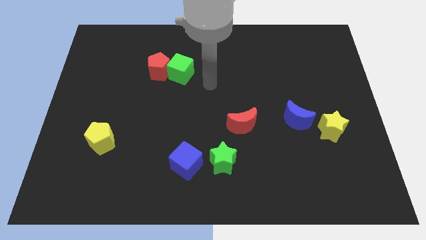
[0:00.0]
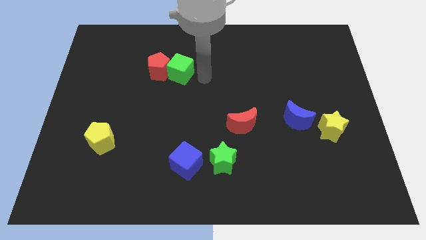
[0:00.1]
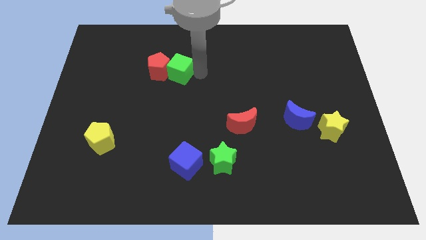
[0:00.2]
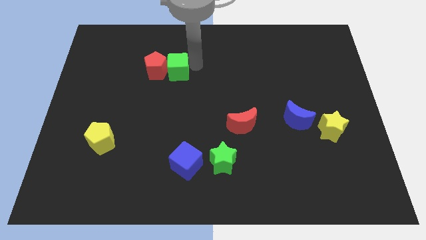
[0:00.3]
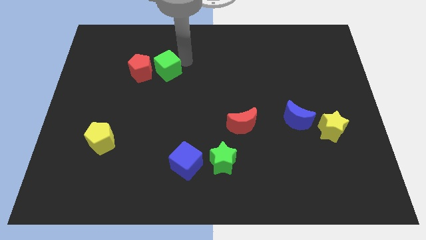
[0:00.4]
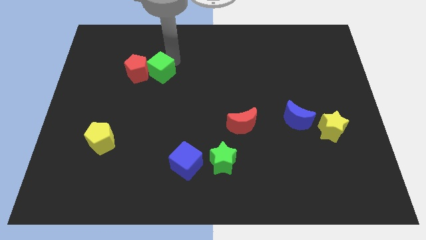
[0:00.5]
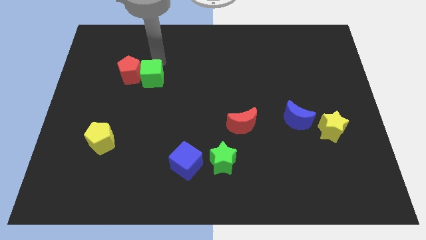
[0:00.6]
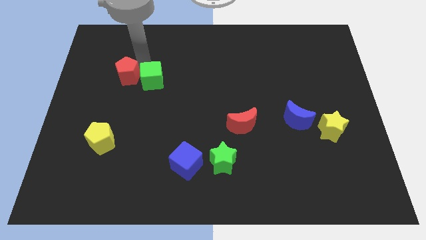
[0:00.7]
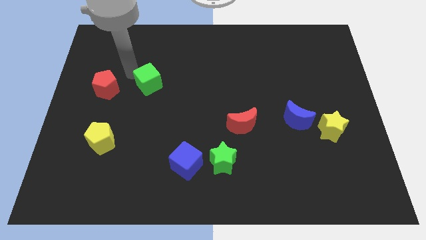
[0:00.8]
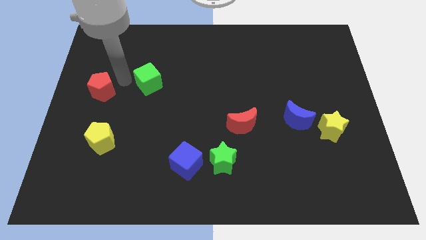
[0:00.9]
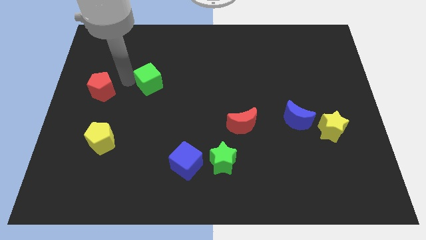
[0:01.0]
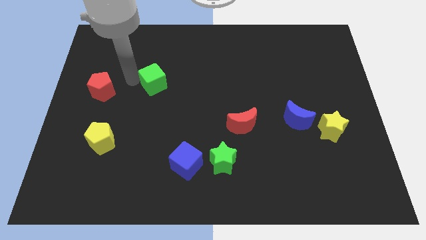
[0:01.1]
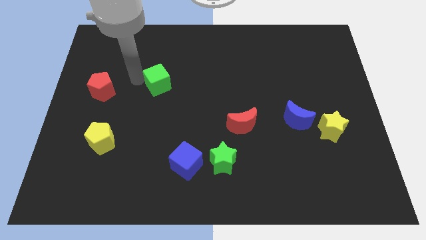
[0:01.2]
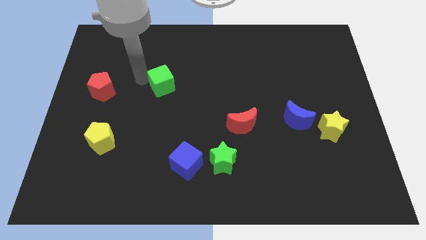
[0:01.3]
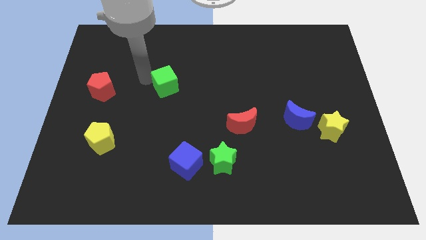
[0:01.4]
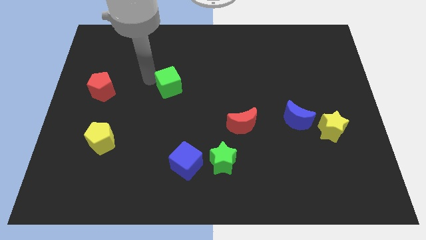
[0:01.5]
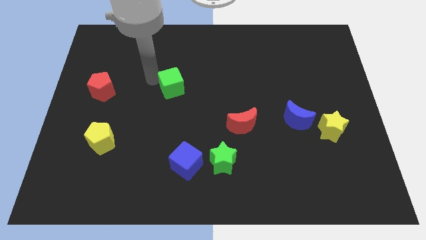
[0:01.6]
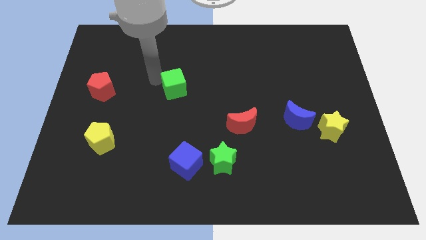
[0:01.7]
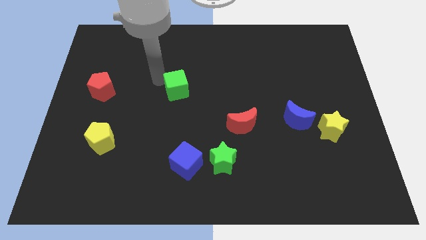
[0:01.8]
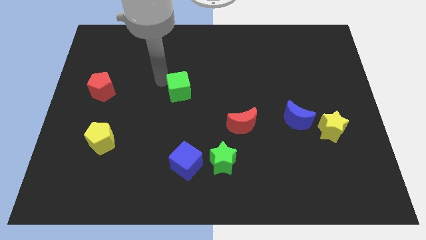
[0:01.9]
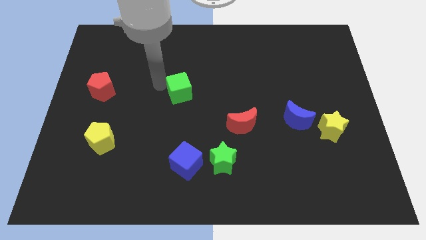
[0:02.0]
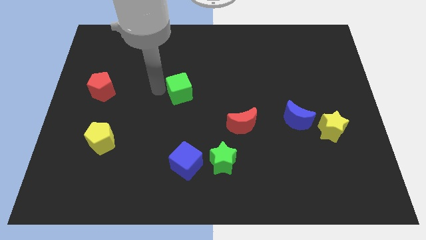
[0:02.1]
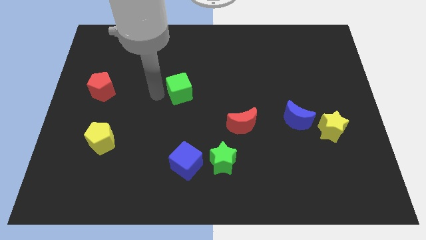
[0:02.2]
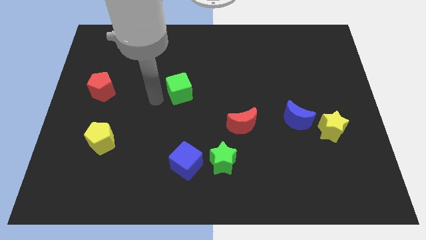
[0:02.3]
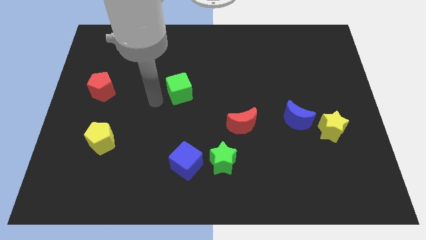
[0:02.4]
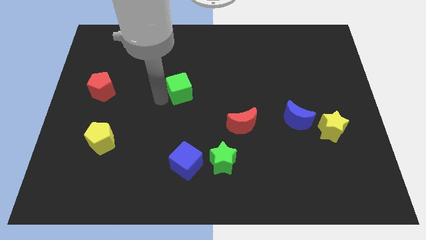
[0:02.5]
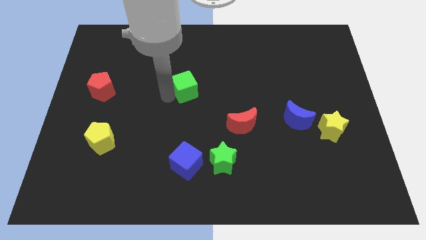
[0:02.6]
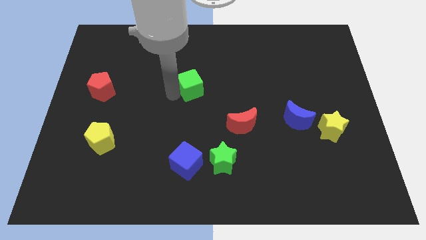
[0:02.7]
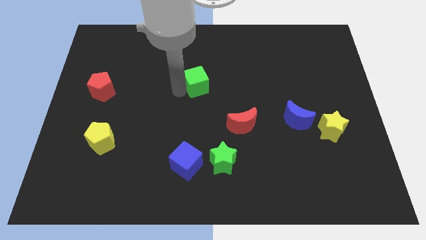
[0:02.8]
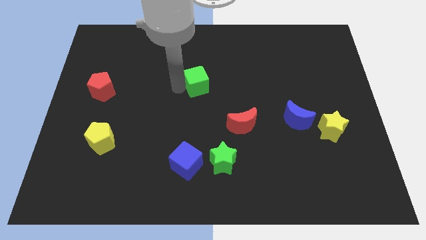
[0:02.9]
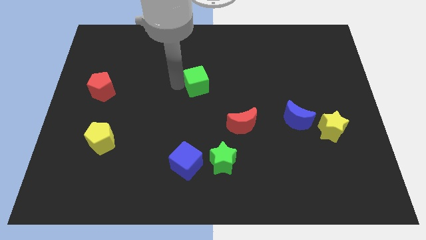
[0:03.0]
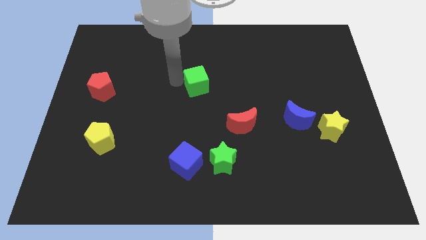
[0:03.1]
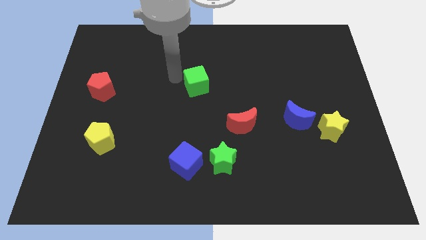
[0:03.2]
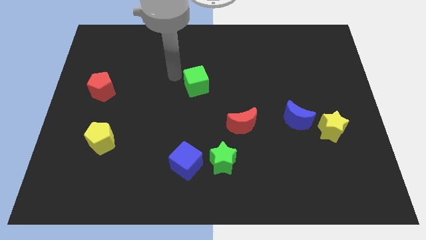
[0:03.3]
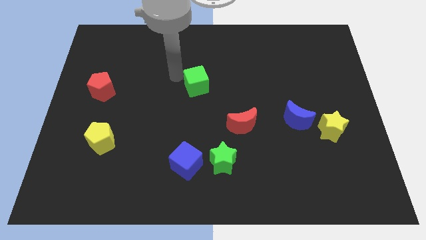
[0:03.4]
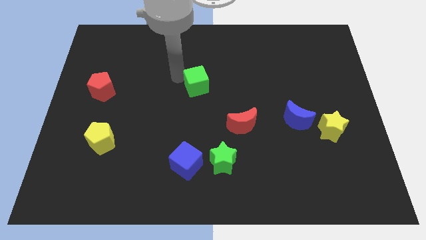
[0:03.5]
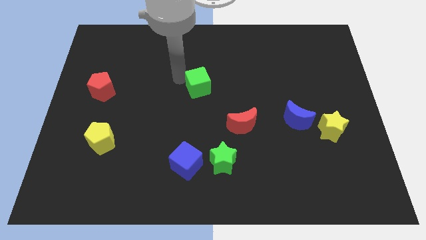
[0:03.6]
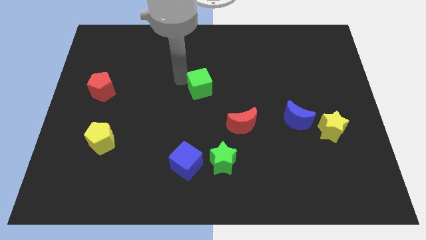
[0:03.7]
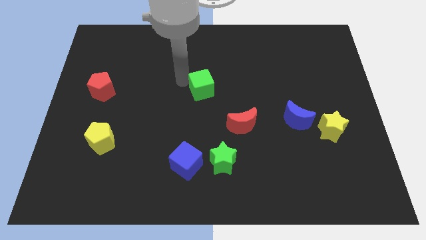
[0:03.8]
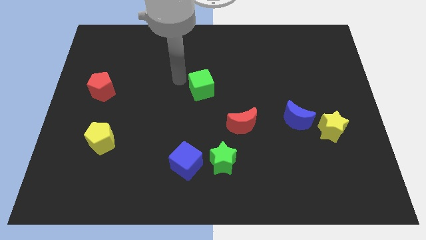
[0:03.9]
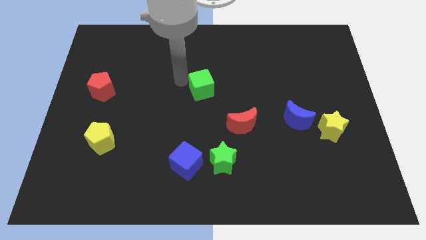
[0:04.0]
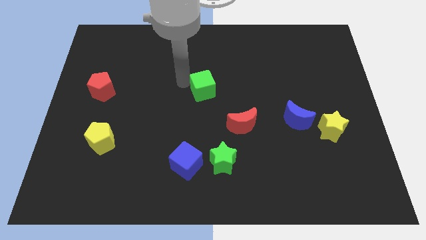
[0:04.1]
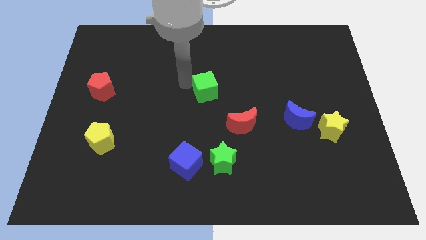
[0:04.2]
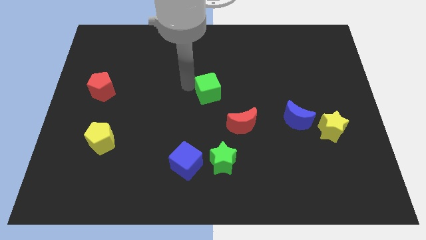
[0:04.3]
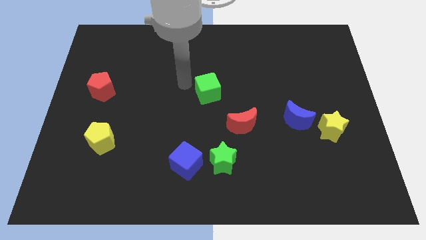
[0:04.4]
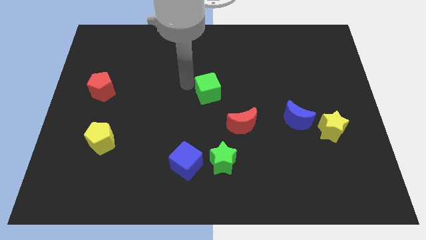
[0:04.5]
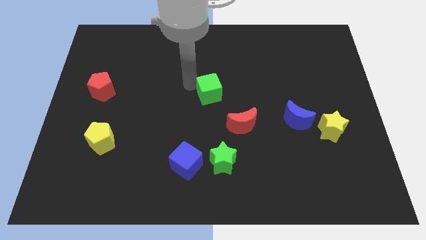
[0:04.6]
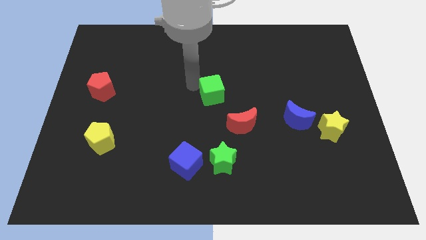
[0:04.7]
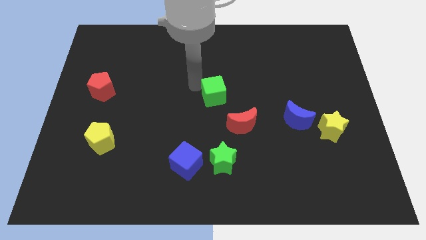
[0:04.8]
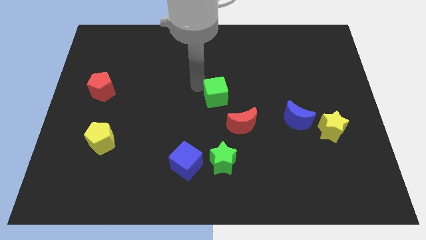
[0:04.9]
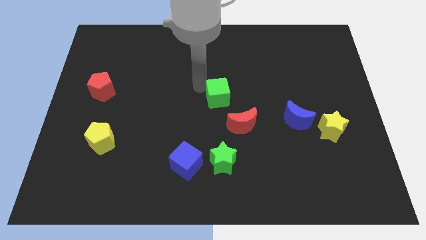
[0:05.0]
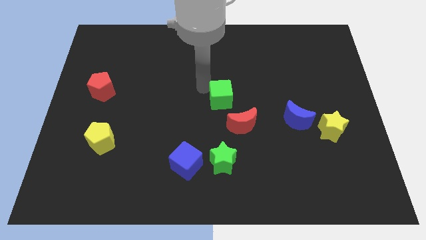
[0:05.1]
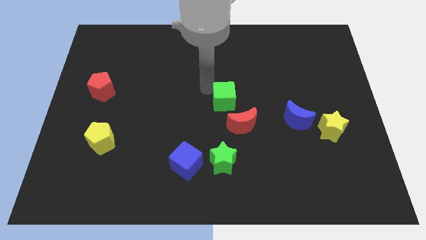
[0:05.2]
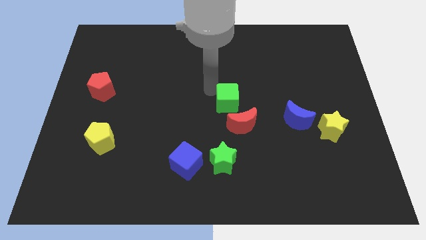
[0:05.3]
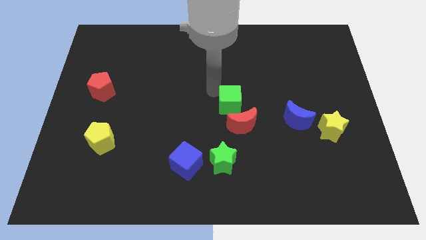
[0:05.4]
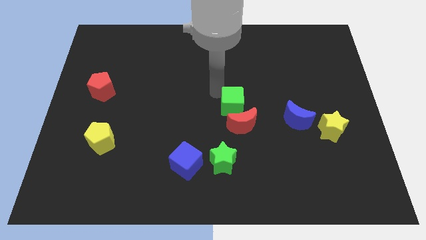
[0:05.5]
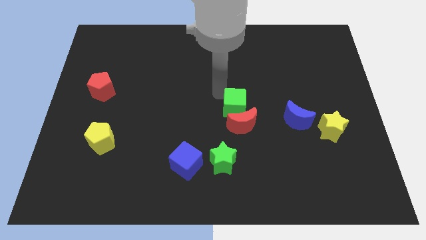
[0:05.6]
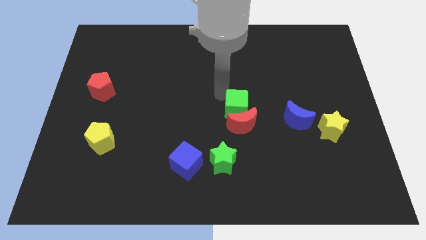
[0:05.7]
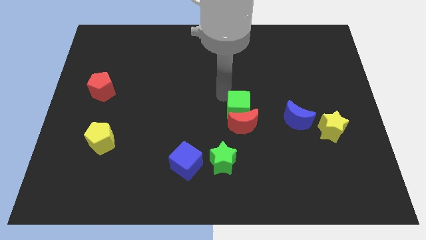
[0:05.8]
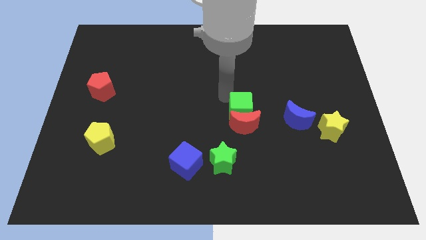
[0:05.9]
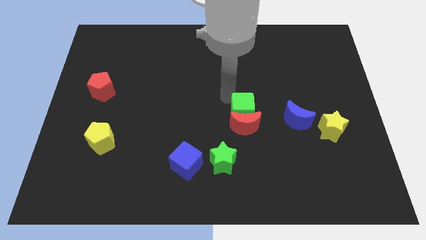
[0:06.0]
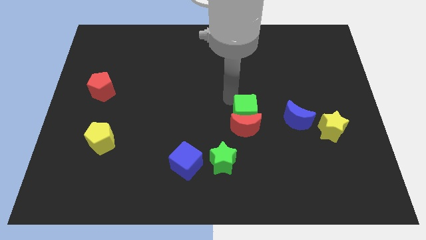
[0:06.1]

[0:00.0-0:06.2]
move the green cube downwards and right

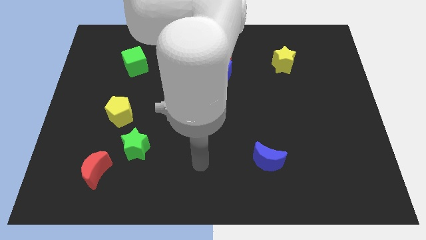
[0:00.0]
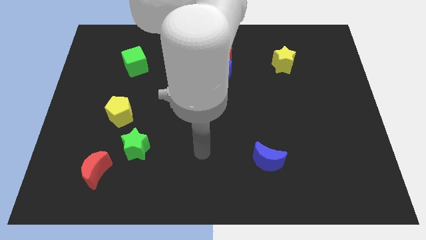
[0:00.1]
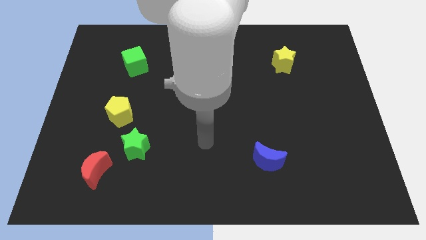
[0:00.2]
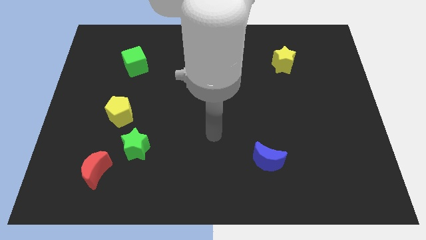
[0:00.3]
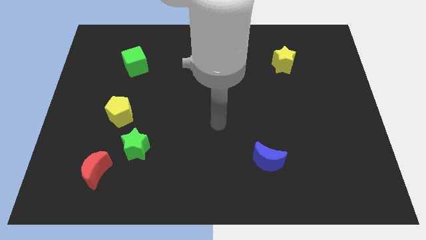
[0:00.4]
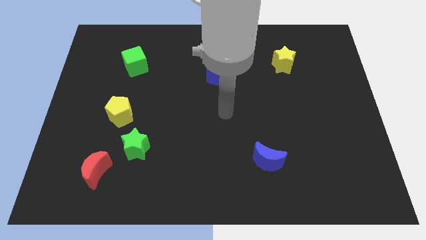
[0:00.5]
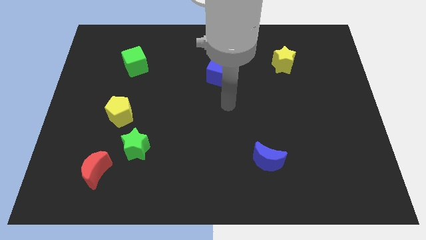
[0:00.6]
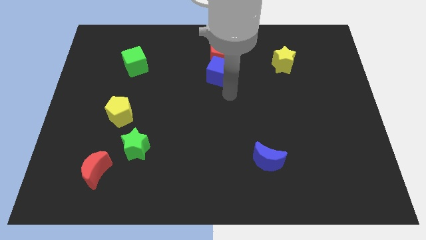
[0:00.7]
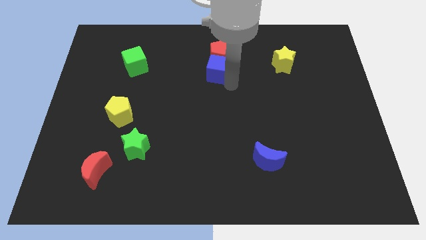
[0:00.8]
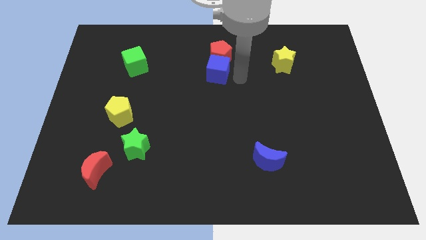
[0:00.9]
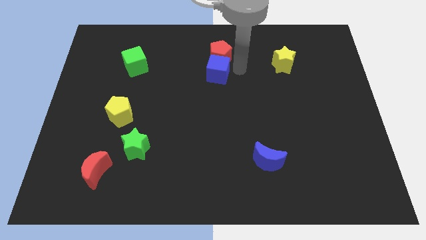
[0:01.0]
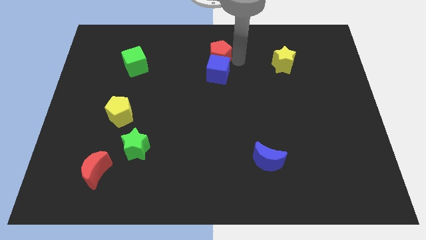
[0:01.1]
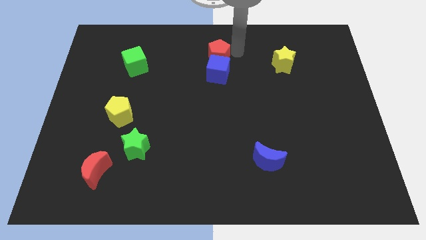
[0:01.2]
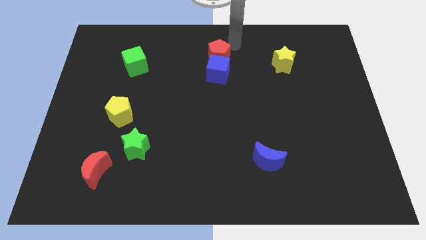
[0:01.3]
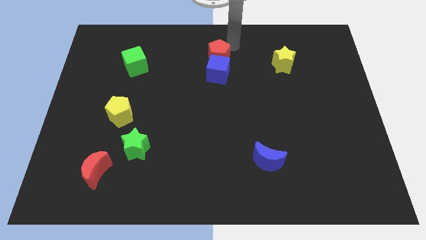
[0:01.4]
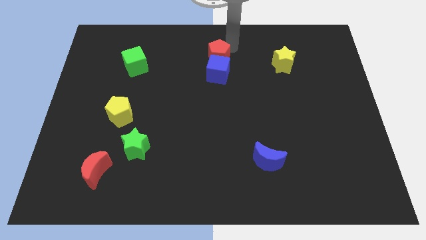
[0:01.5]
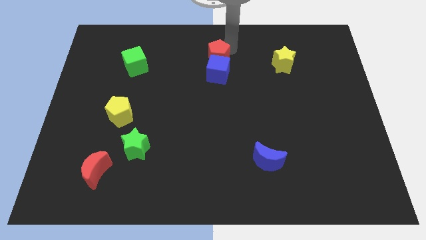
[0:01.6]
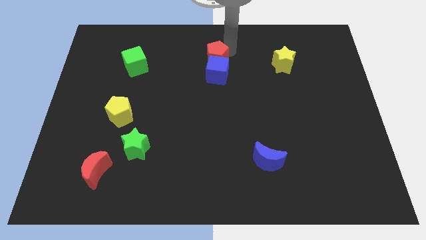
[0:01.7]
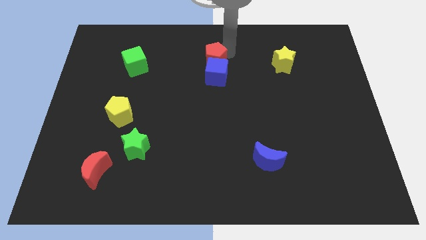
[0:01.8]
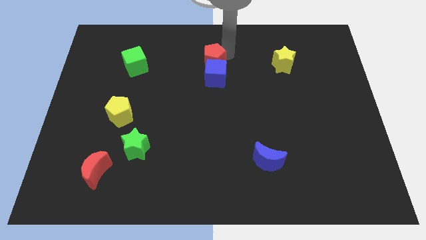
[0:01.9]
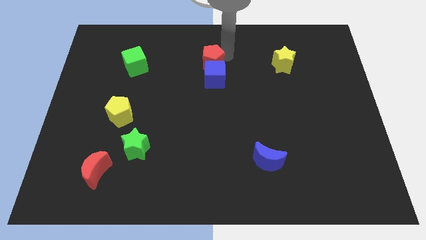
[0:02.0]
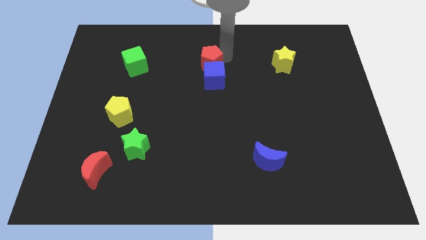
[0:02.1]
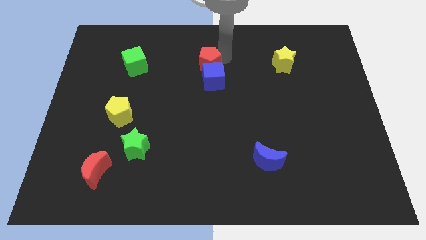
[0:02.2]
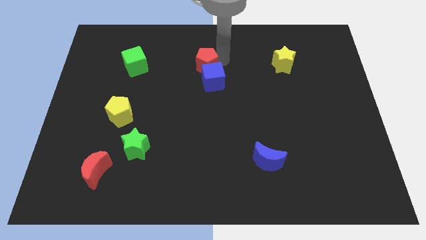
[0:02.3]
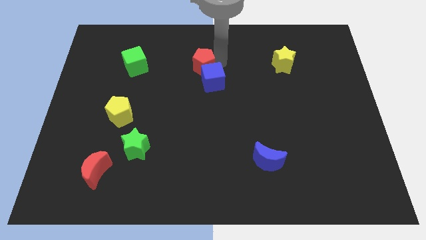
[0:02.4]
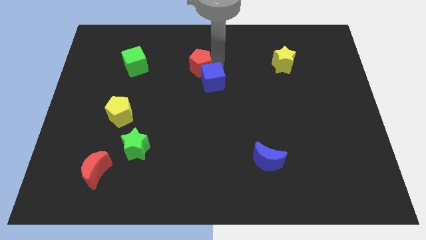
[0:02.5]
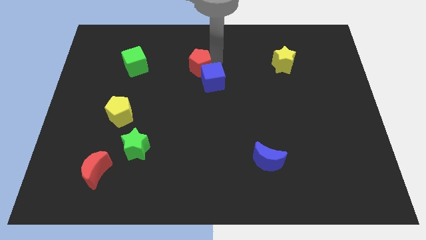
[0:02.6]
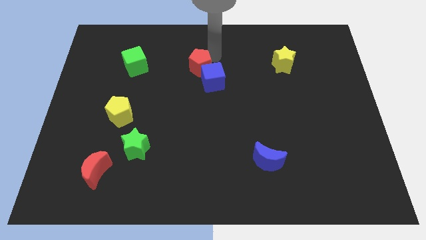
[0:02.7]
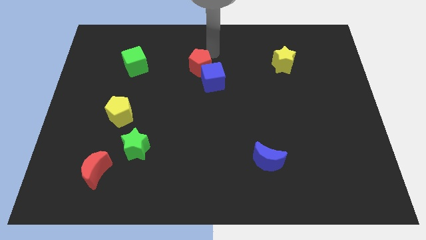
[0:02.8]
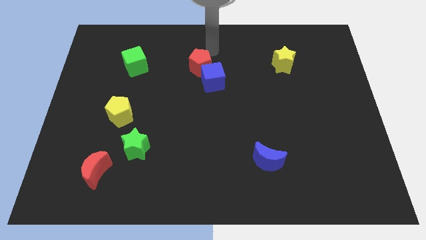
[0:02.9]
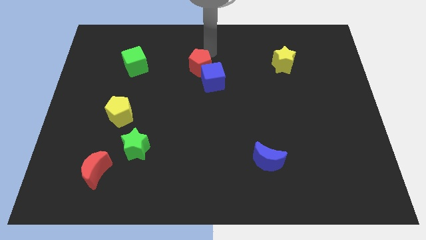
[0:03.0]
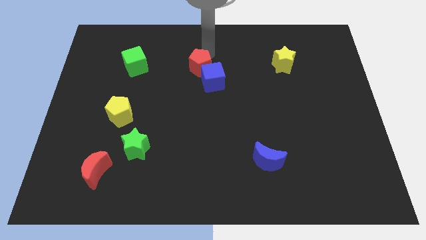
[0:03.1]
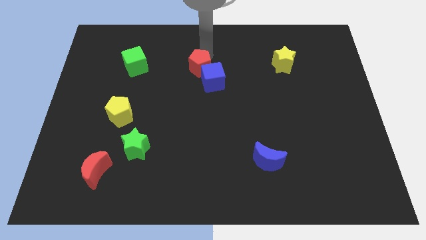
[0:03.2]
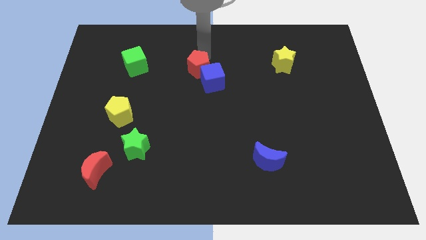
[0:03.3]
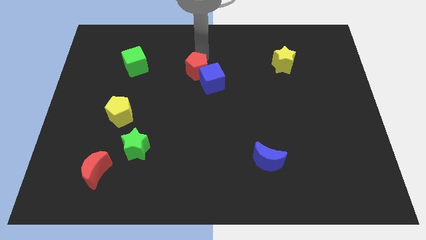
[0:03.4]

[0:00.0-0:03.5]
slightly move the red pentagon diagonally downwards and to the left
